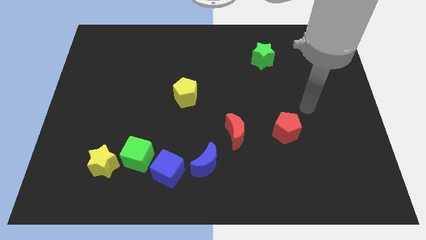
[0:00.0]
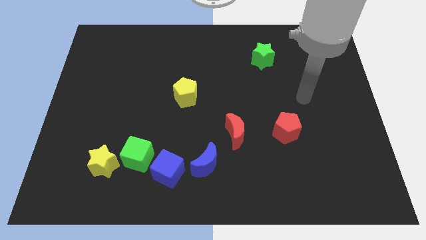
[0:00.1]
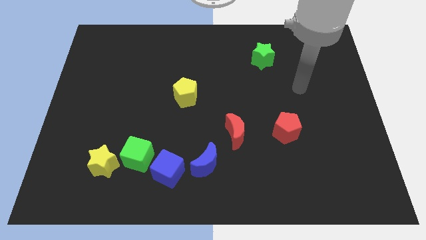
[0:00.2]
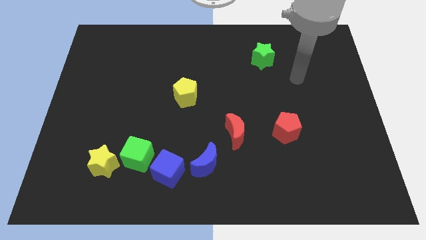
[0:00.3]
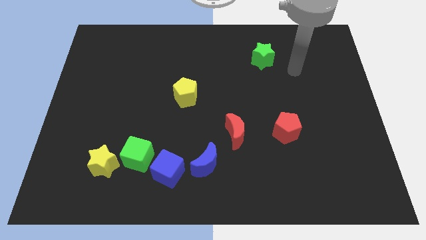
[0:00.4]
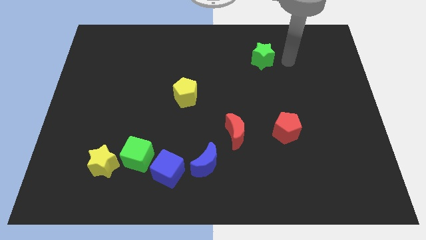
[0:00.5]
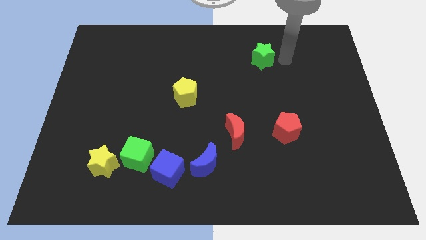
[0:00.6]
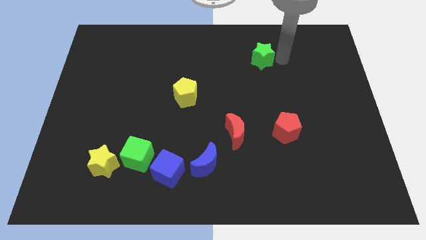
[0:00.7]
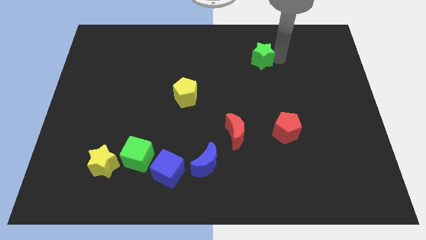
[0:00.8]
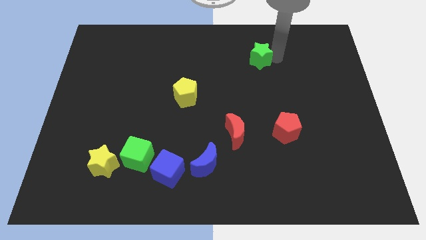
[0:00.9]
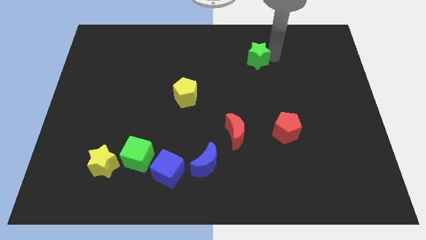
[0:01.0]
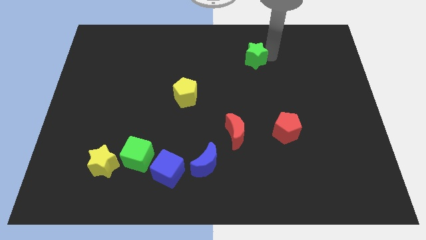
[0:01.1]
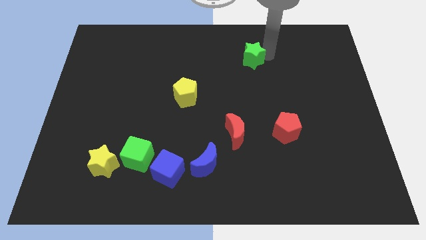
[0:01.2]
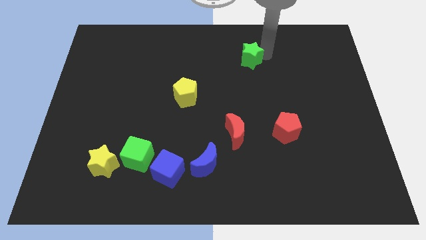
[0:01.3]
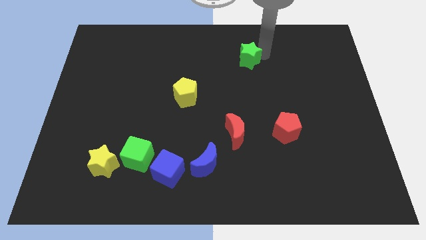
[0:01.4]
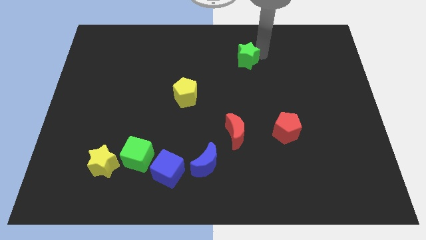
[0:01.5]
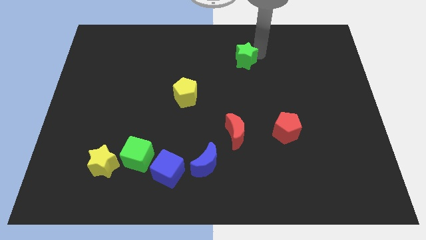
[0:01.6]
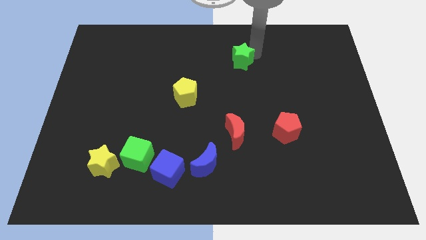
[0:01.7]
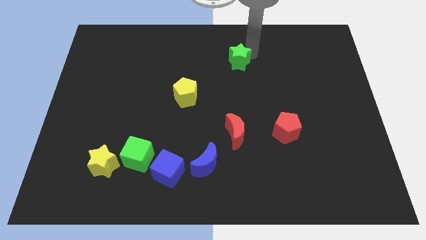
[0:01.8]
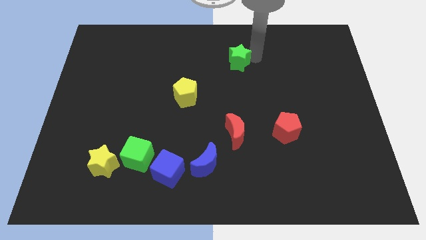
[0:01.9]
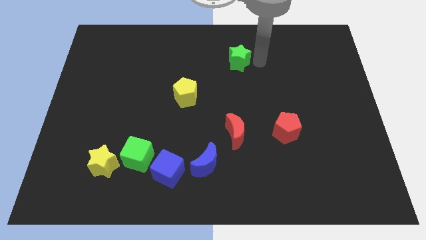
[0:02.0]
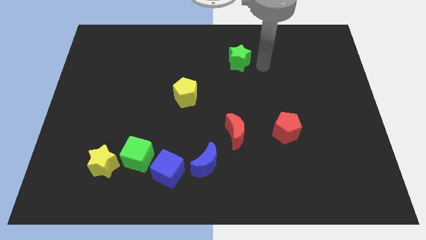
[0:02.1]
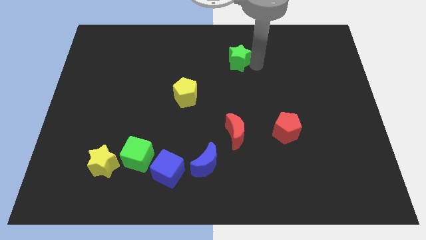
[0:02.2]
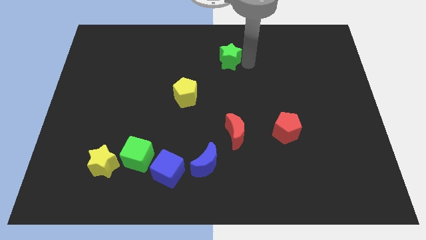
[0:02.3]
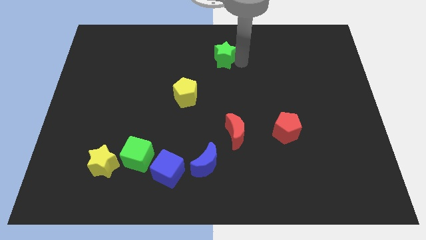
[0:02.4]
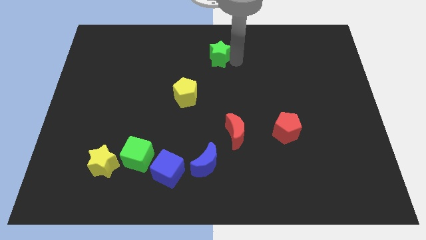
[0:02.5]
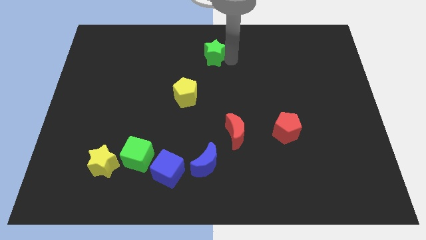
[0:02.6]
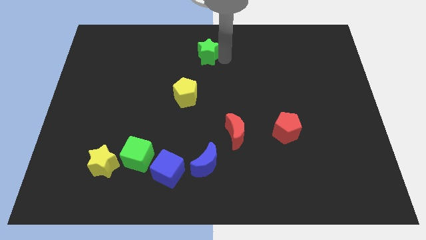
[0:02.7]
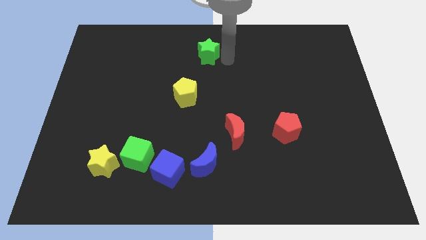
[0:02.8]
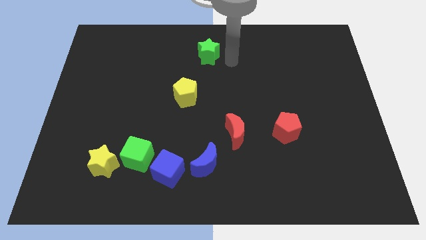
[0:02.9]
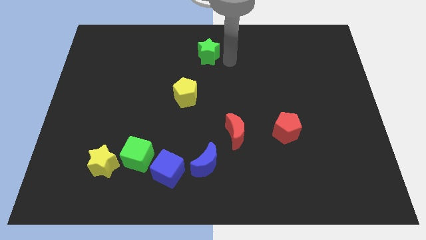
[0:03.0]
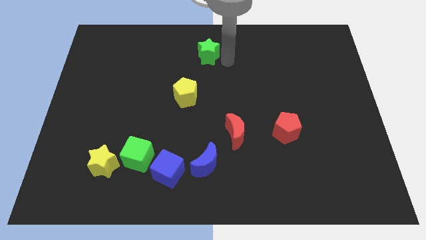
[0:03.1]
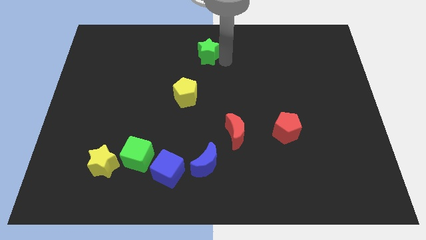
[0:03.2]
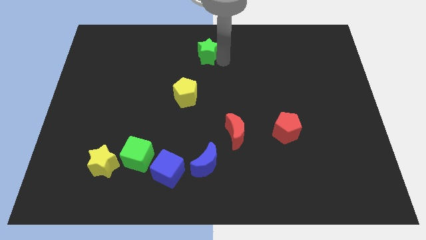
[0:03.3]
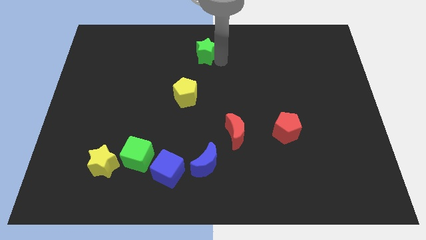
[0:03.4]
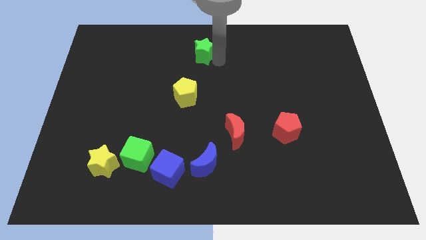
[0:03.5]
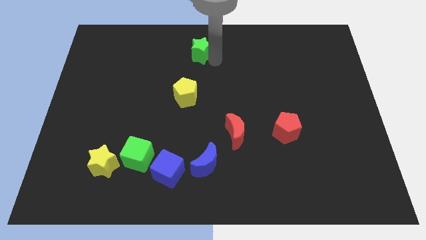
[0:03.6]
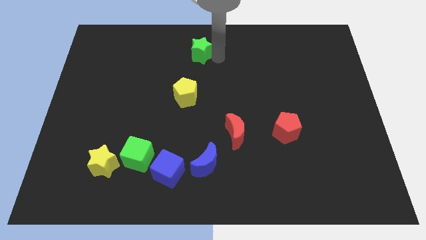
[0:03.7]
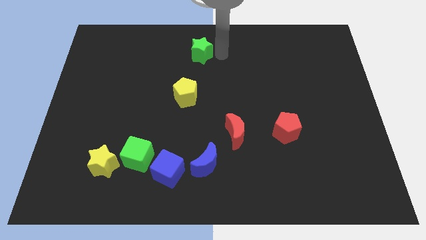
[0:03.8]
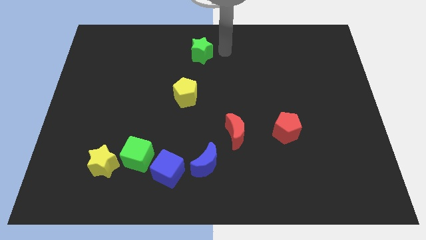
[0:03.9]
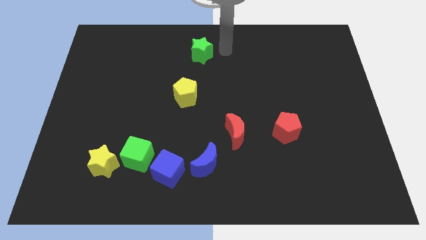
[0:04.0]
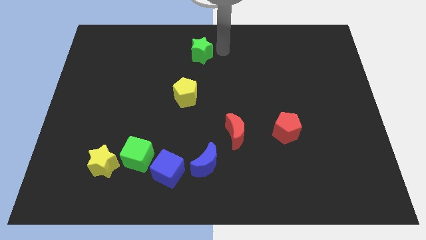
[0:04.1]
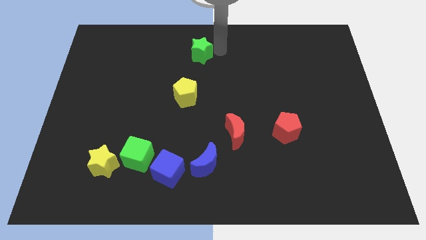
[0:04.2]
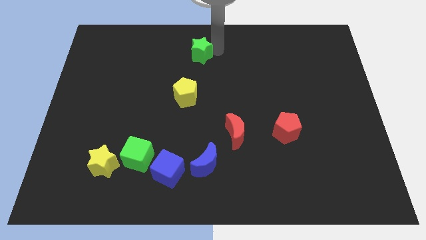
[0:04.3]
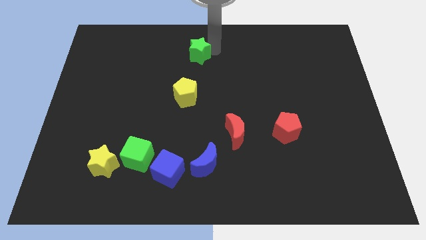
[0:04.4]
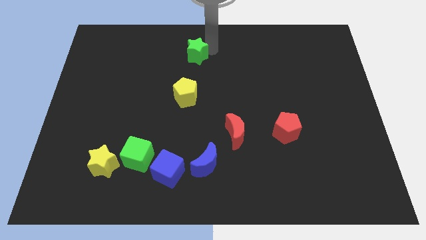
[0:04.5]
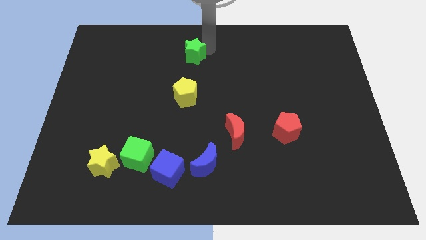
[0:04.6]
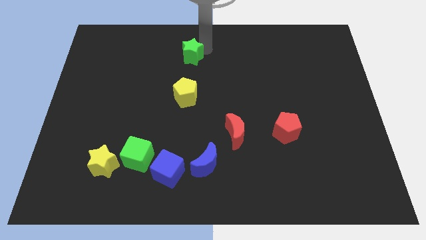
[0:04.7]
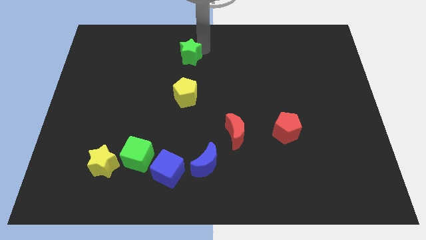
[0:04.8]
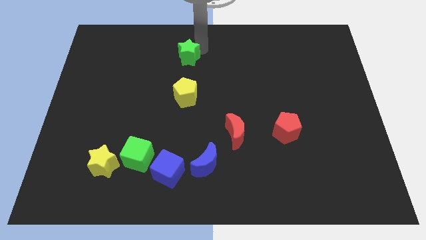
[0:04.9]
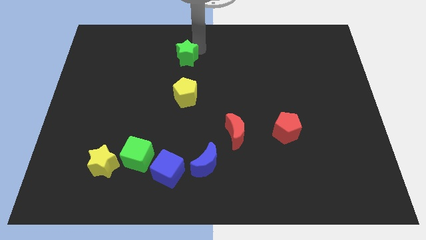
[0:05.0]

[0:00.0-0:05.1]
slide the green star to the left

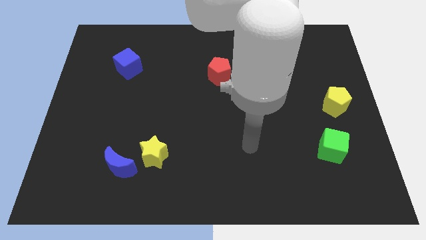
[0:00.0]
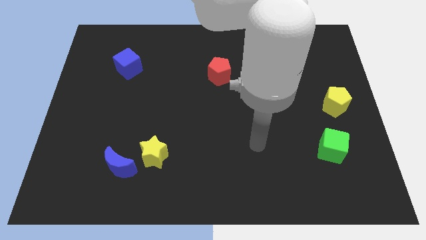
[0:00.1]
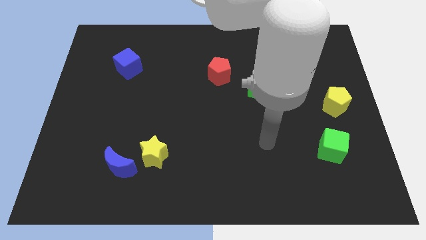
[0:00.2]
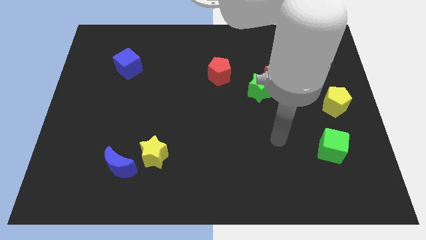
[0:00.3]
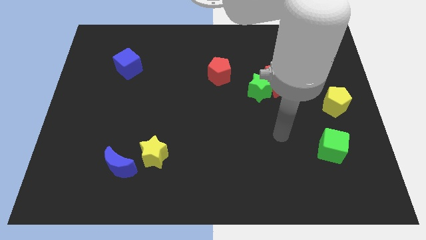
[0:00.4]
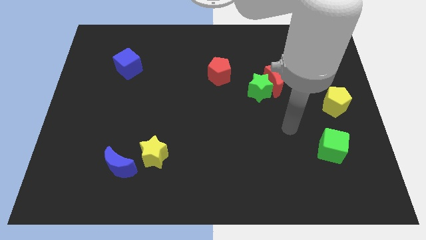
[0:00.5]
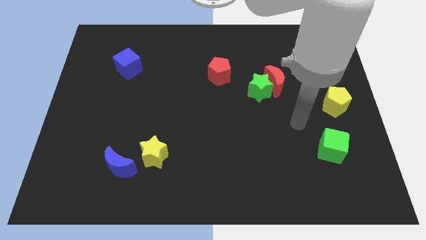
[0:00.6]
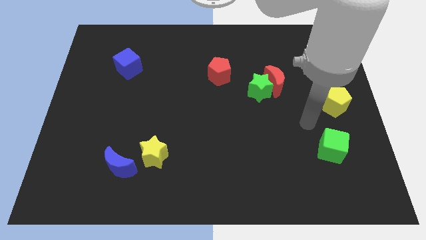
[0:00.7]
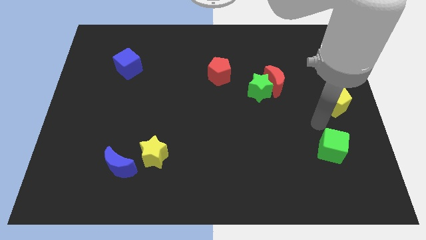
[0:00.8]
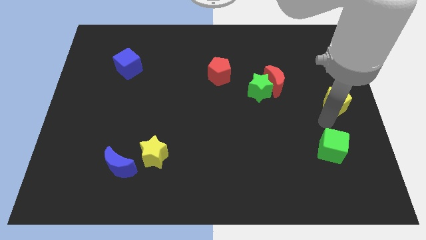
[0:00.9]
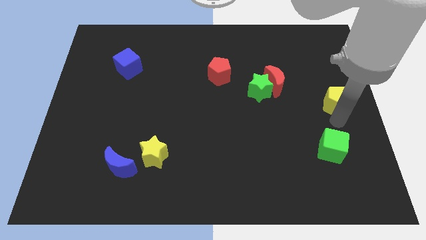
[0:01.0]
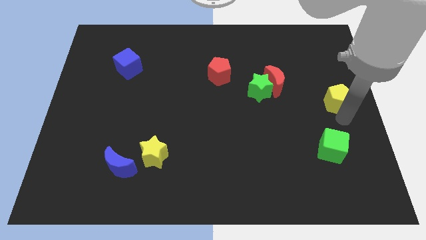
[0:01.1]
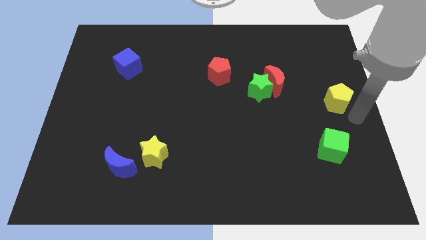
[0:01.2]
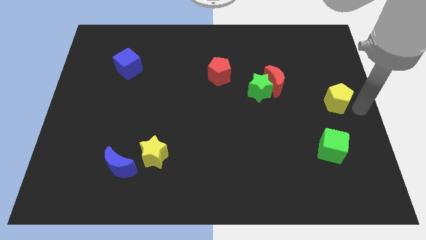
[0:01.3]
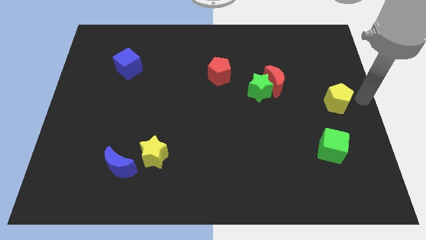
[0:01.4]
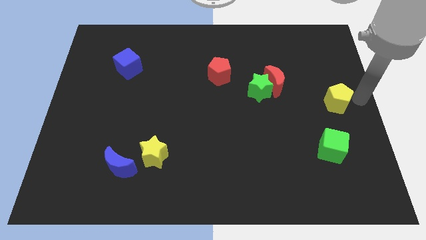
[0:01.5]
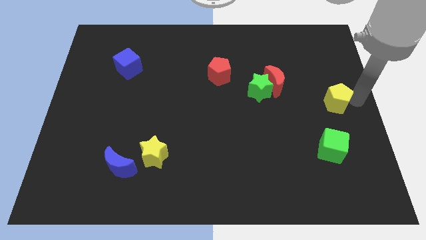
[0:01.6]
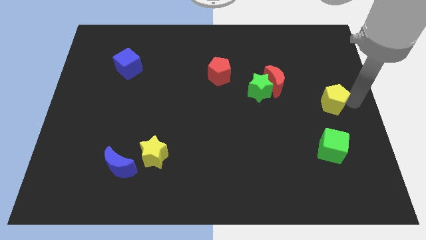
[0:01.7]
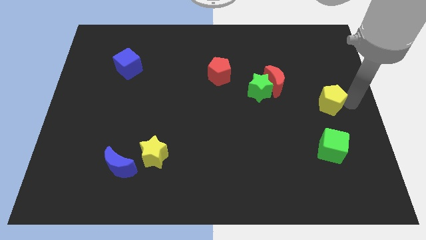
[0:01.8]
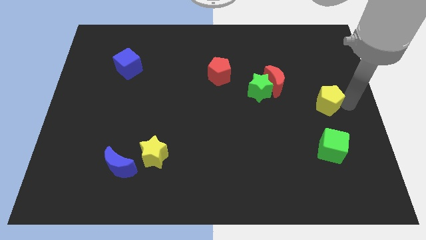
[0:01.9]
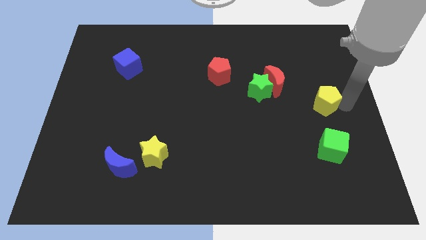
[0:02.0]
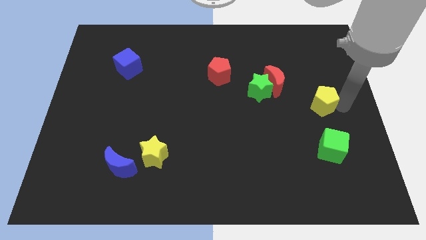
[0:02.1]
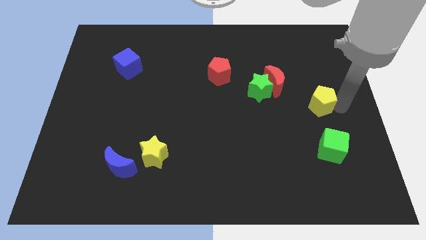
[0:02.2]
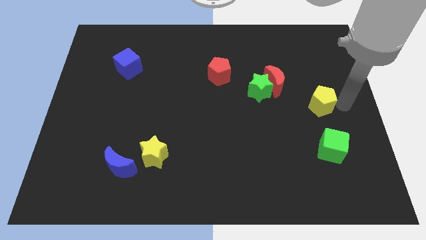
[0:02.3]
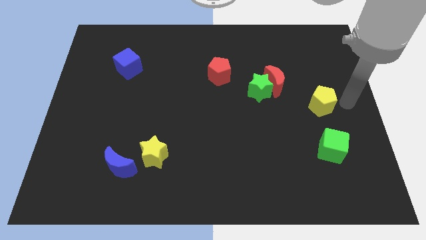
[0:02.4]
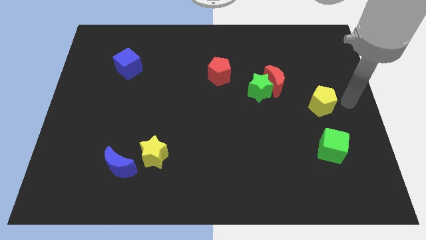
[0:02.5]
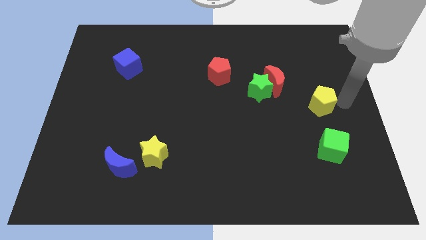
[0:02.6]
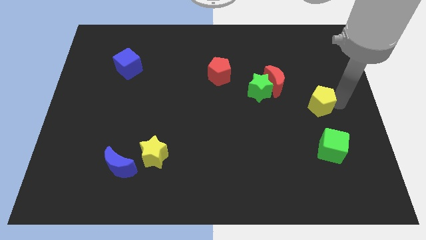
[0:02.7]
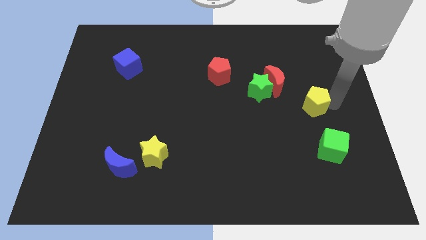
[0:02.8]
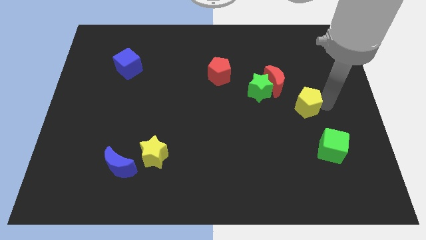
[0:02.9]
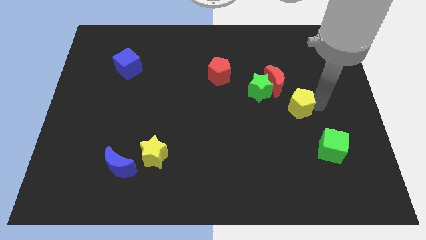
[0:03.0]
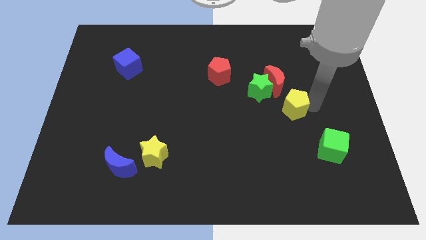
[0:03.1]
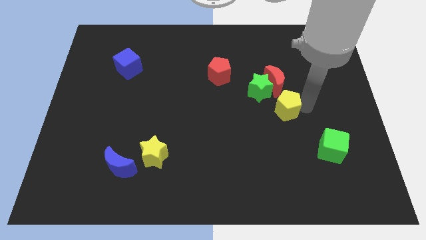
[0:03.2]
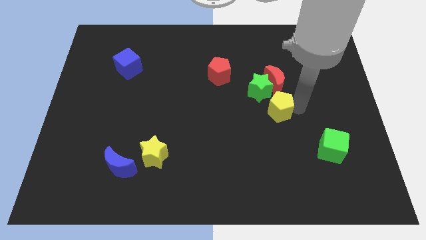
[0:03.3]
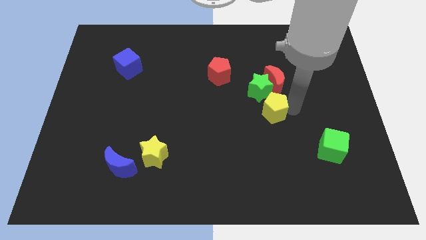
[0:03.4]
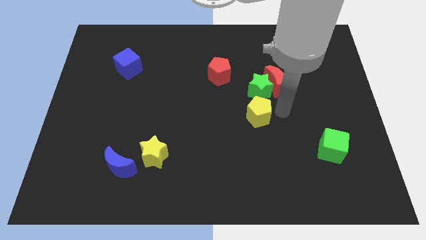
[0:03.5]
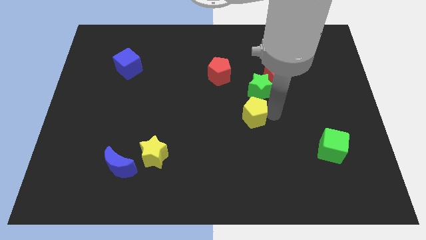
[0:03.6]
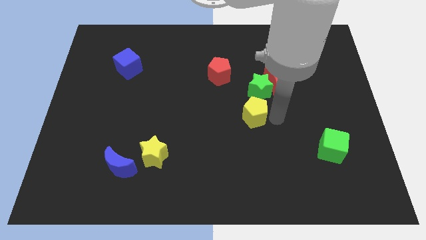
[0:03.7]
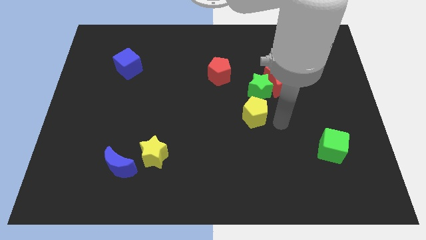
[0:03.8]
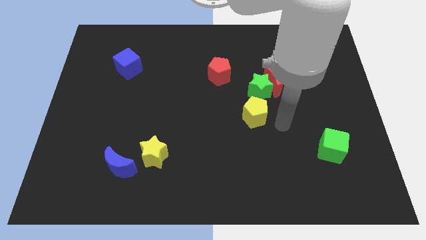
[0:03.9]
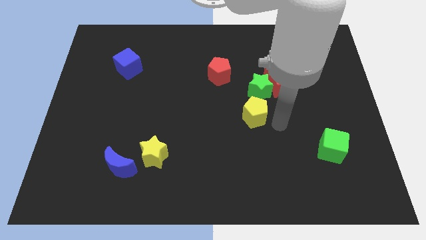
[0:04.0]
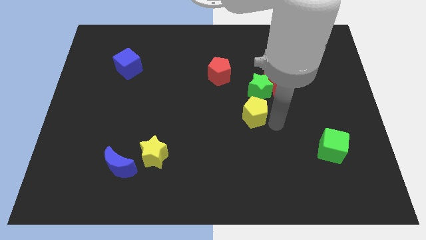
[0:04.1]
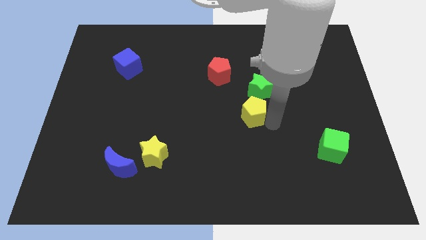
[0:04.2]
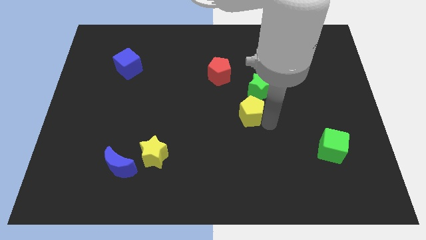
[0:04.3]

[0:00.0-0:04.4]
move the yellow pentagon to the left
